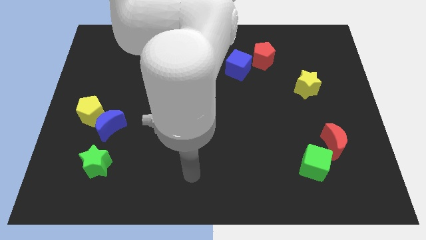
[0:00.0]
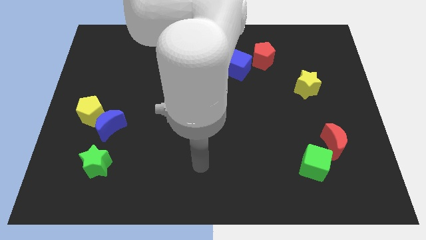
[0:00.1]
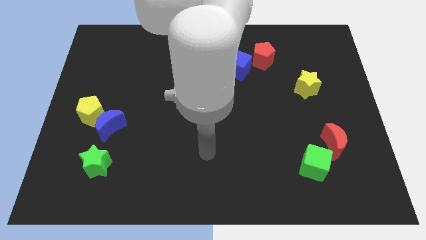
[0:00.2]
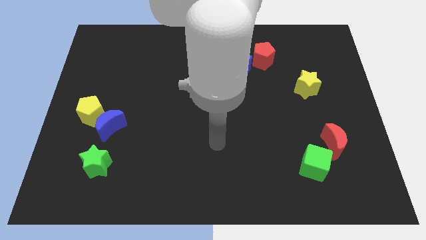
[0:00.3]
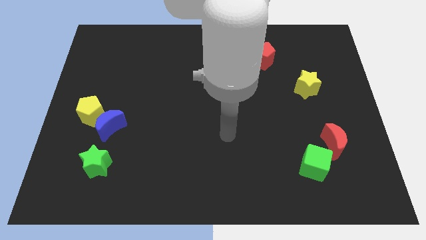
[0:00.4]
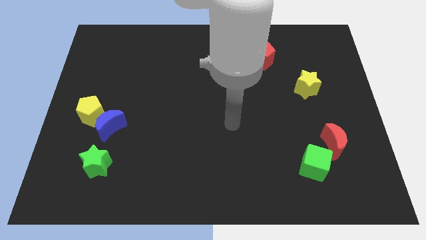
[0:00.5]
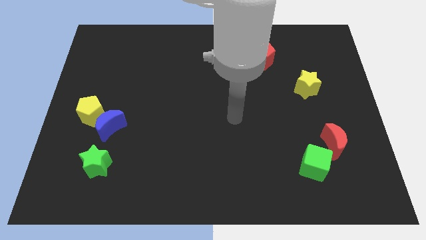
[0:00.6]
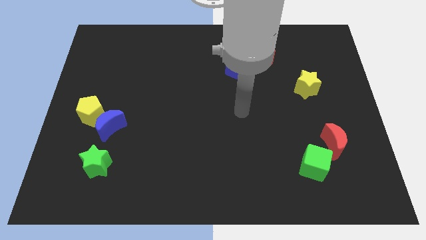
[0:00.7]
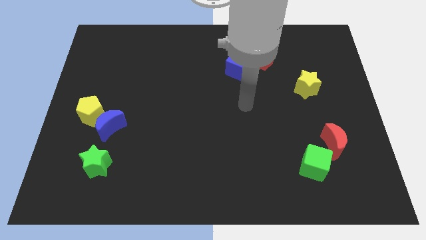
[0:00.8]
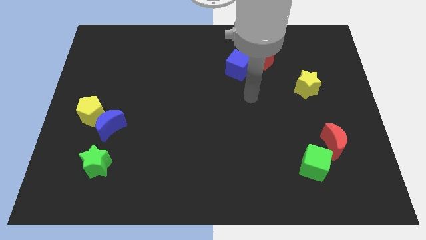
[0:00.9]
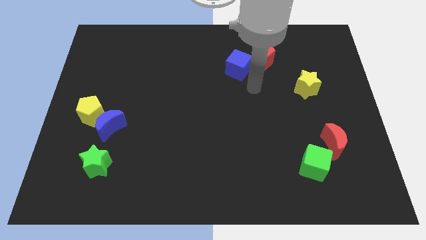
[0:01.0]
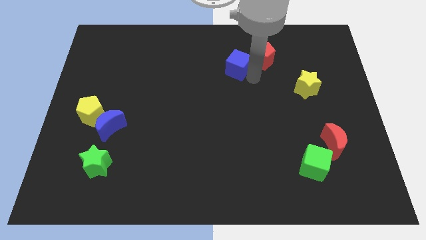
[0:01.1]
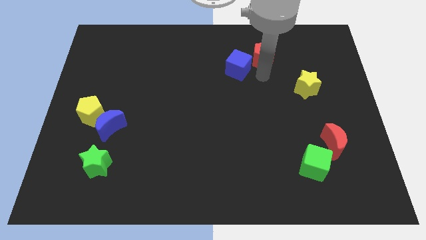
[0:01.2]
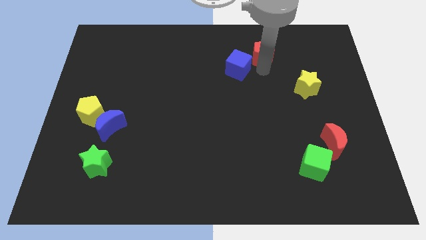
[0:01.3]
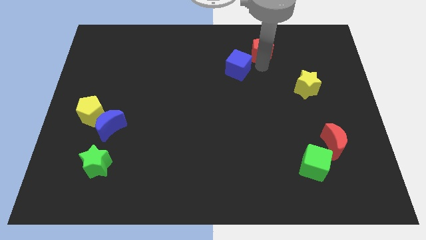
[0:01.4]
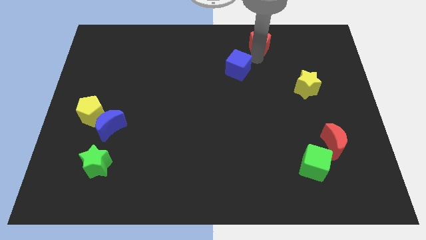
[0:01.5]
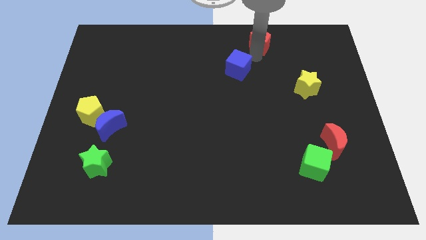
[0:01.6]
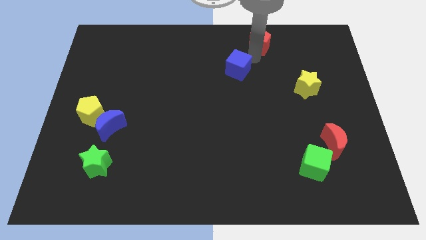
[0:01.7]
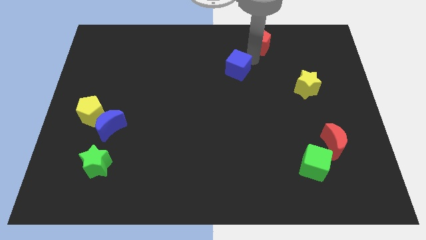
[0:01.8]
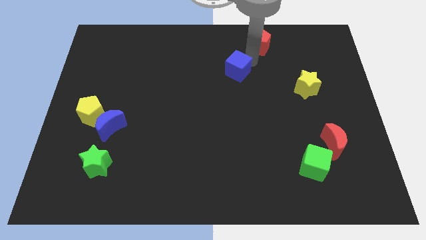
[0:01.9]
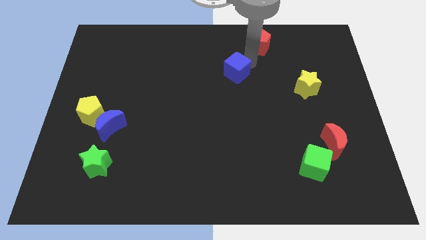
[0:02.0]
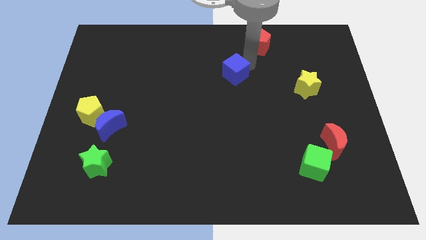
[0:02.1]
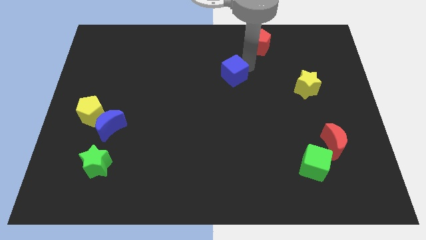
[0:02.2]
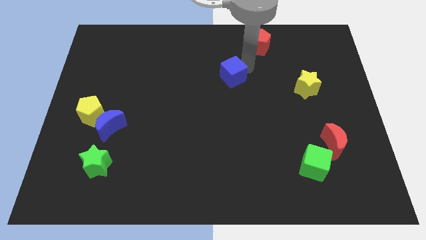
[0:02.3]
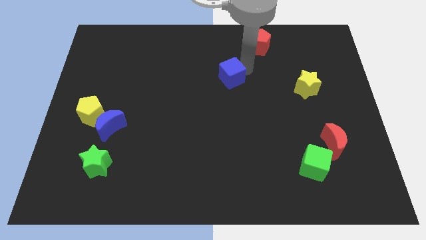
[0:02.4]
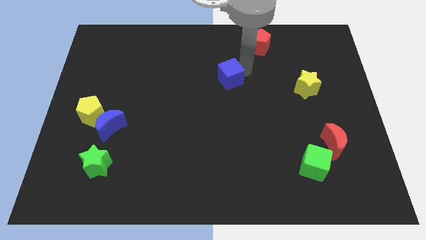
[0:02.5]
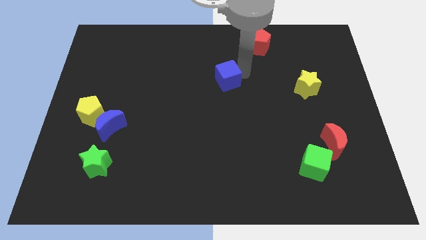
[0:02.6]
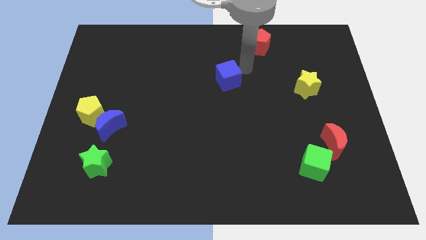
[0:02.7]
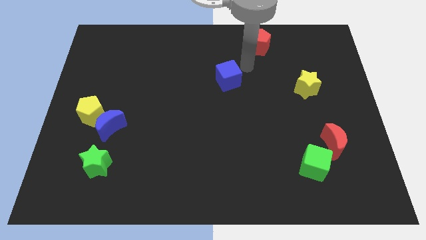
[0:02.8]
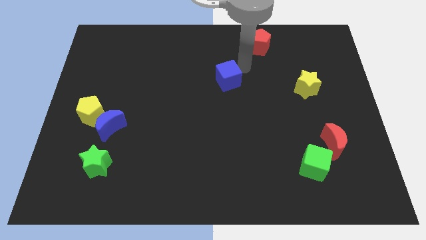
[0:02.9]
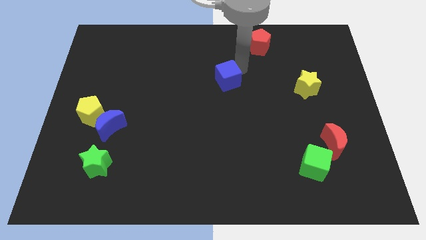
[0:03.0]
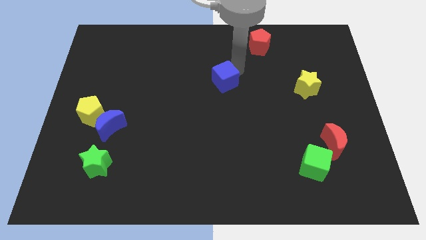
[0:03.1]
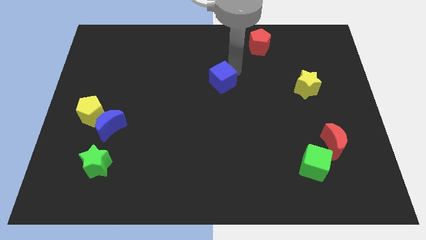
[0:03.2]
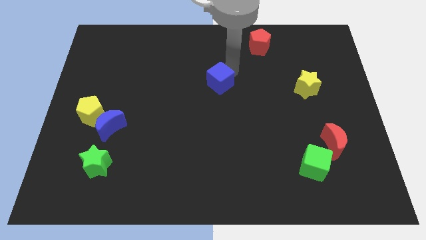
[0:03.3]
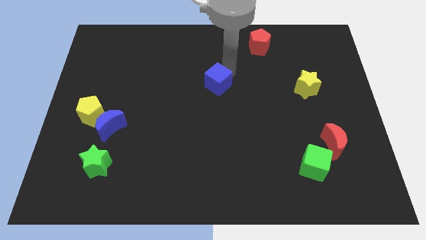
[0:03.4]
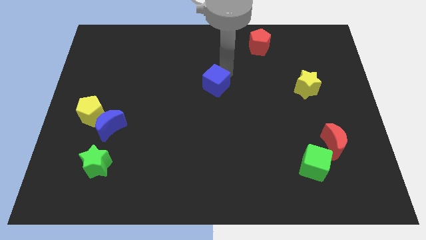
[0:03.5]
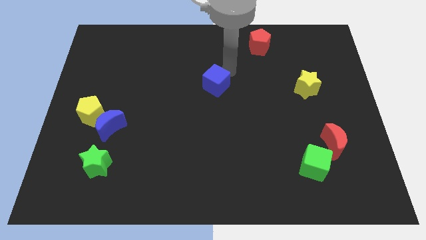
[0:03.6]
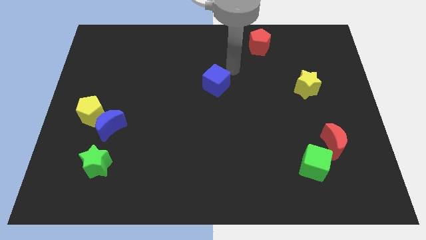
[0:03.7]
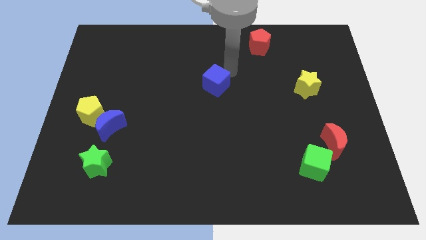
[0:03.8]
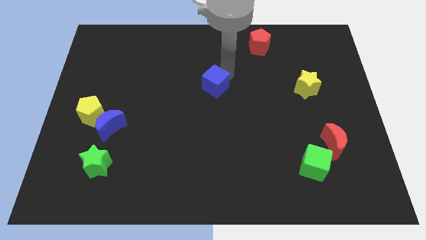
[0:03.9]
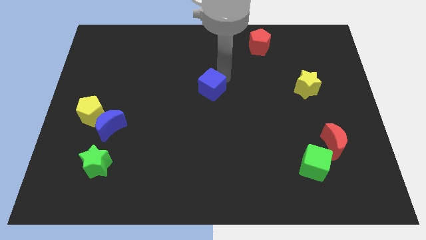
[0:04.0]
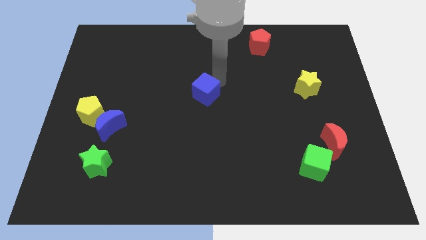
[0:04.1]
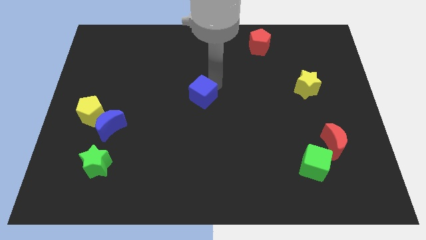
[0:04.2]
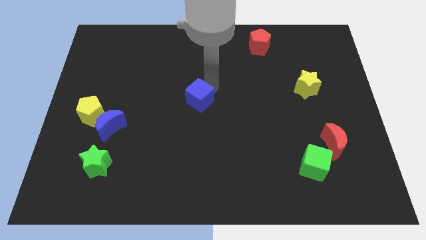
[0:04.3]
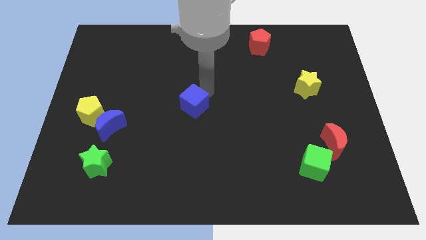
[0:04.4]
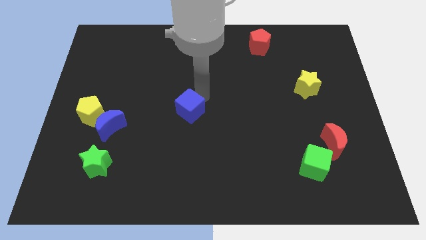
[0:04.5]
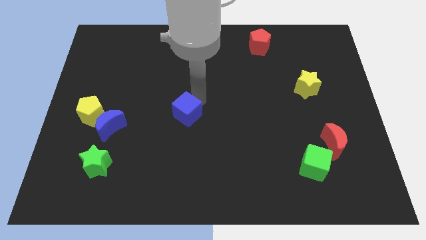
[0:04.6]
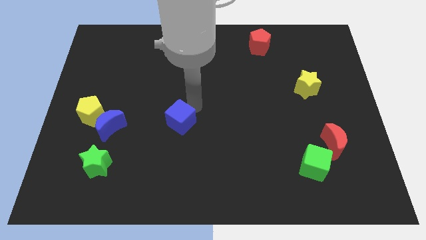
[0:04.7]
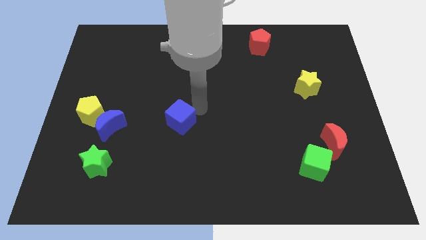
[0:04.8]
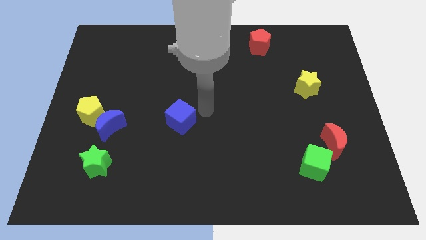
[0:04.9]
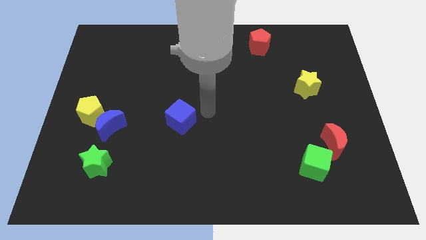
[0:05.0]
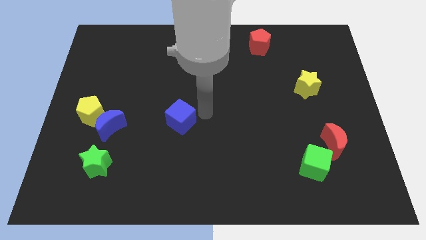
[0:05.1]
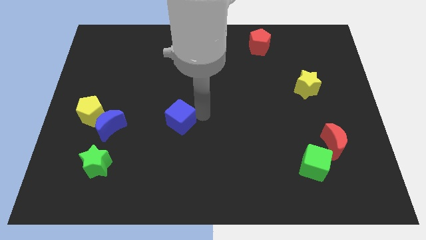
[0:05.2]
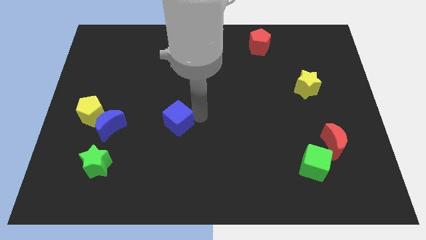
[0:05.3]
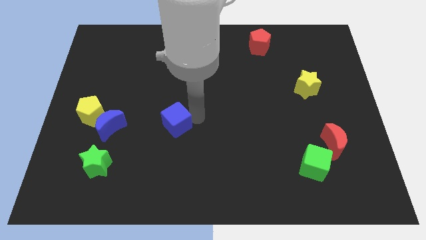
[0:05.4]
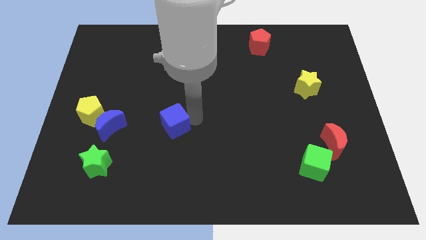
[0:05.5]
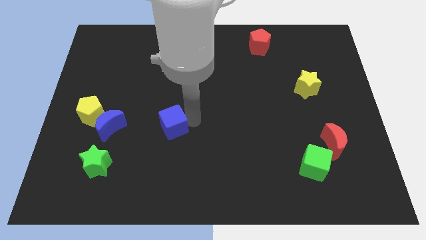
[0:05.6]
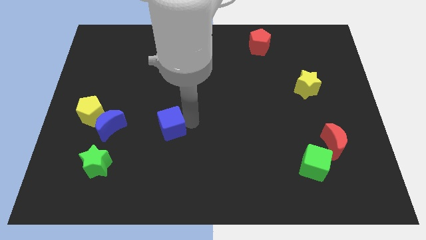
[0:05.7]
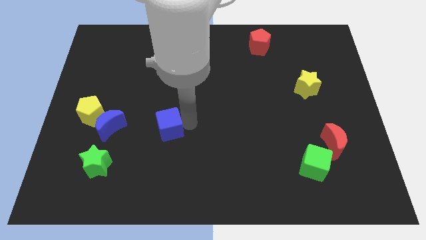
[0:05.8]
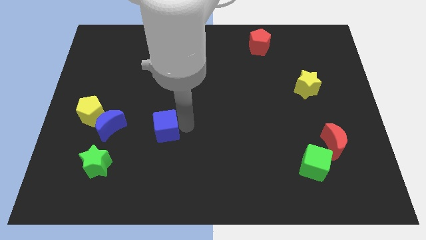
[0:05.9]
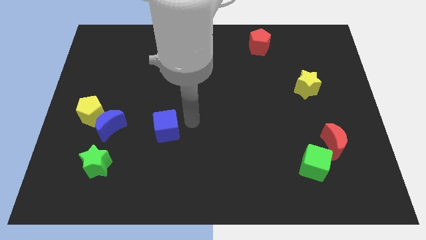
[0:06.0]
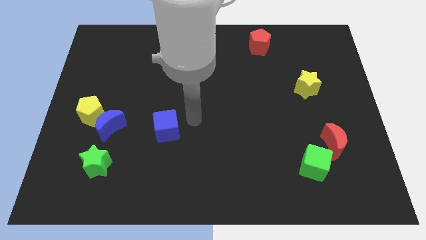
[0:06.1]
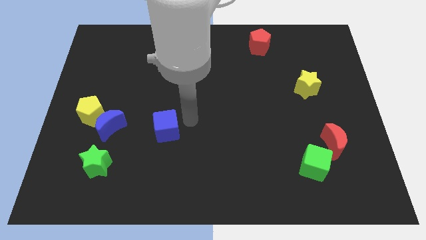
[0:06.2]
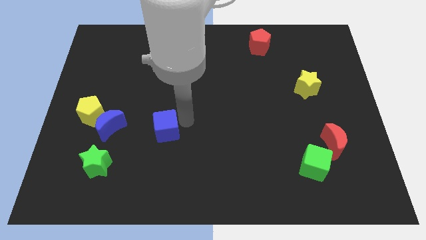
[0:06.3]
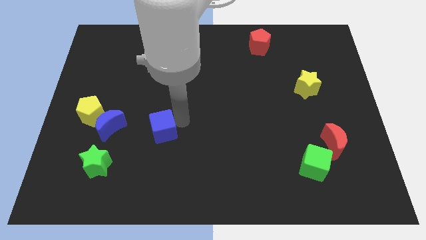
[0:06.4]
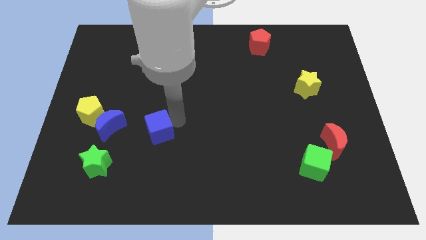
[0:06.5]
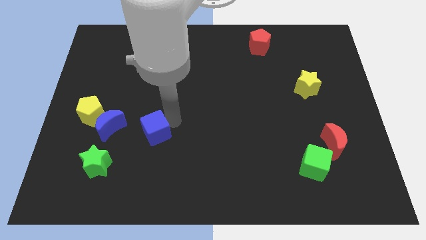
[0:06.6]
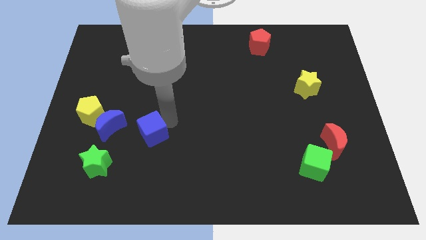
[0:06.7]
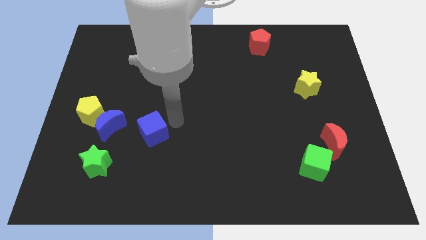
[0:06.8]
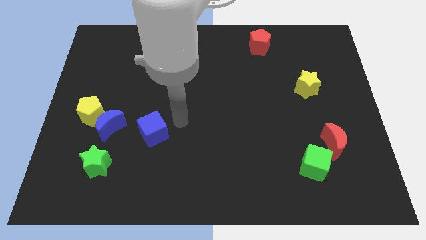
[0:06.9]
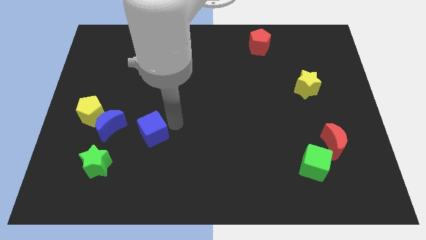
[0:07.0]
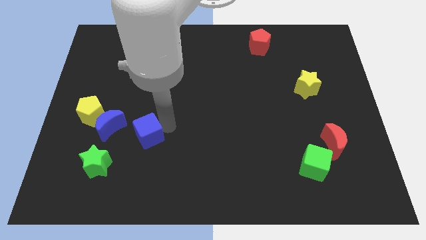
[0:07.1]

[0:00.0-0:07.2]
push the blue cube to the top right of the green star
